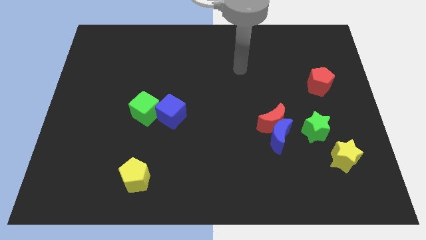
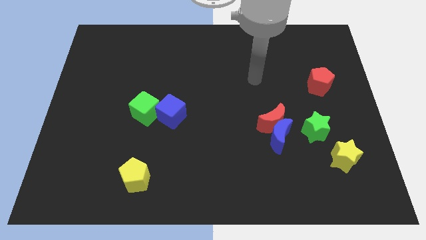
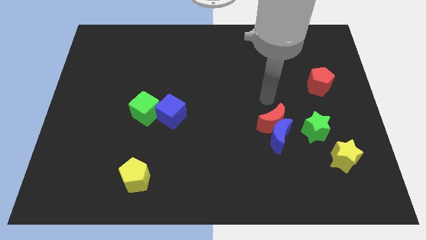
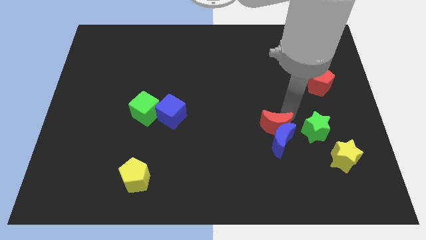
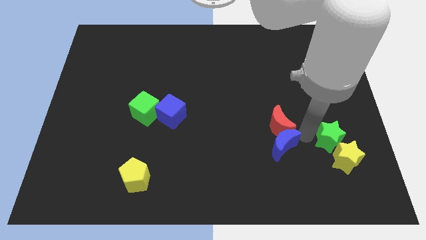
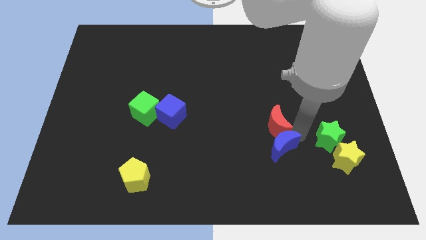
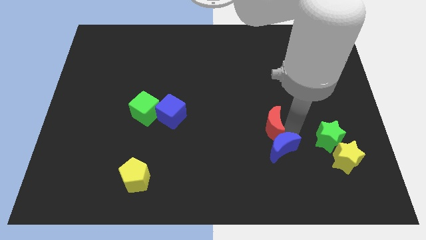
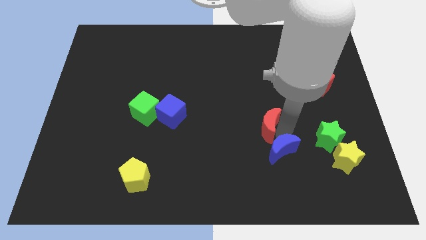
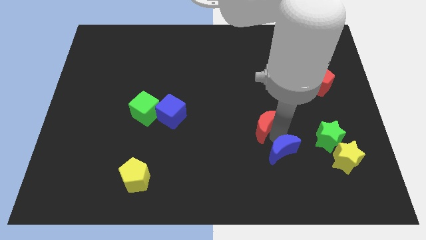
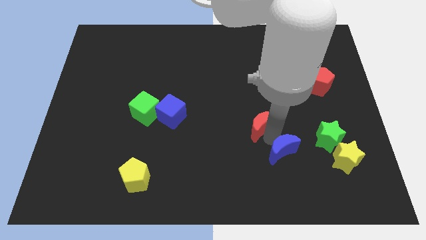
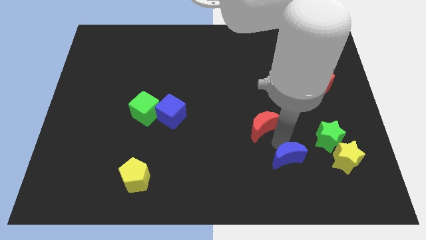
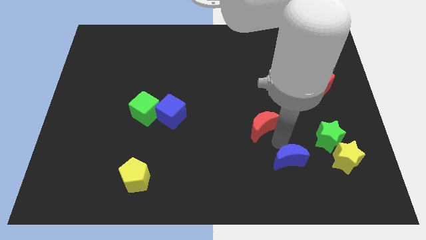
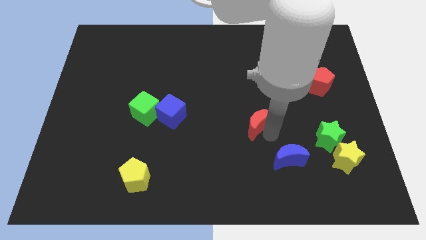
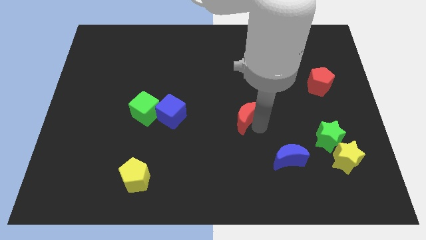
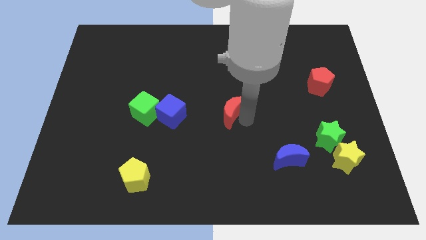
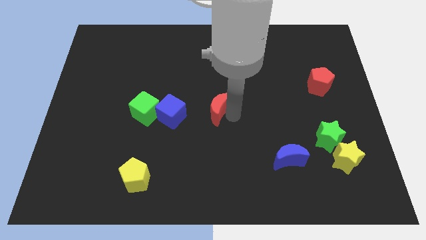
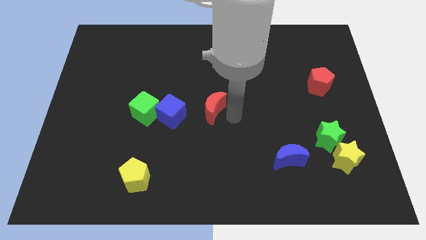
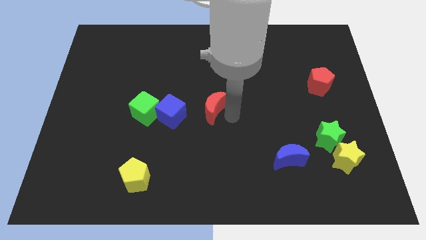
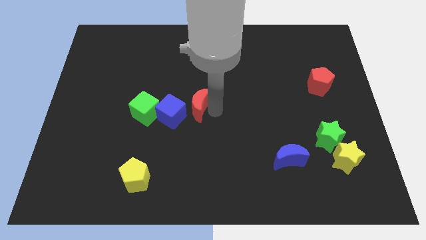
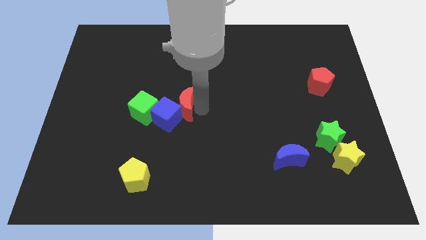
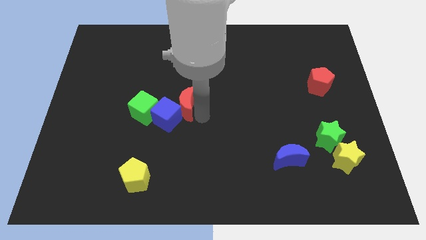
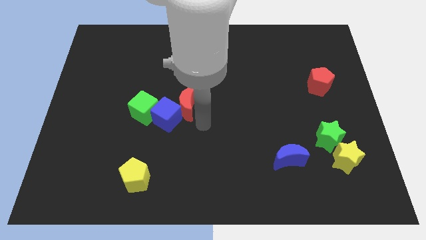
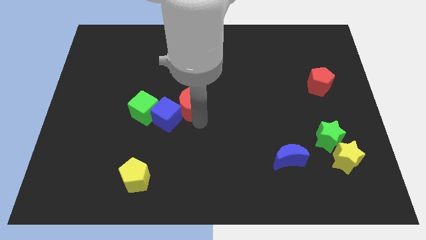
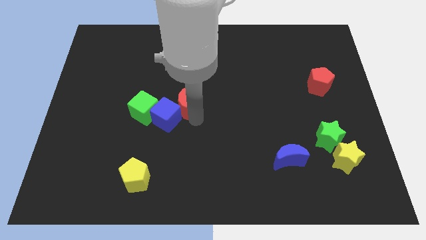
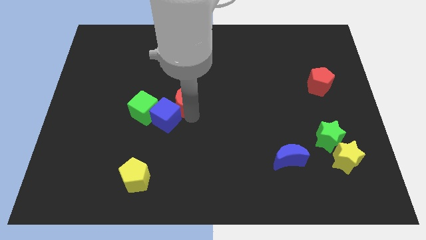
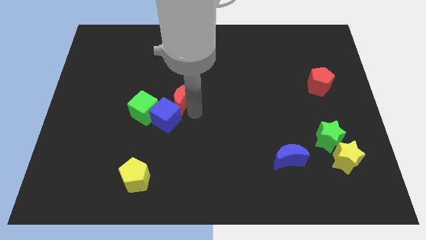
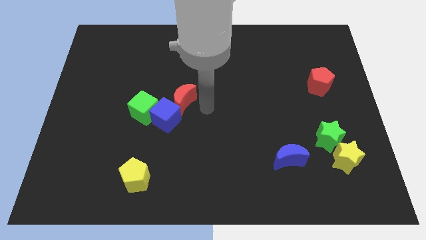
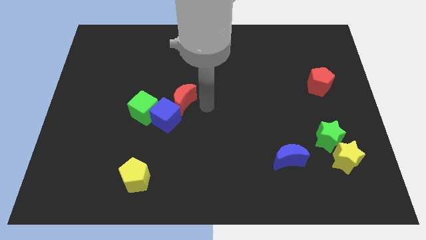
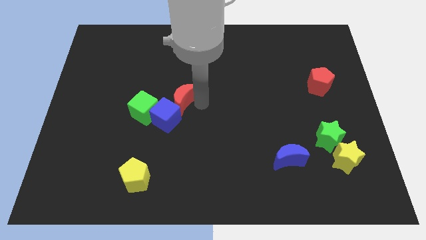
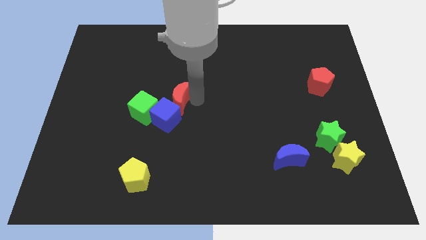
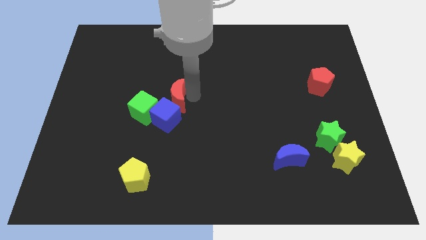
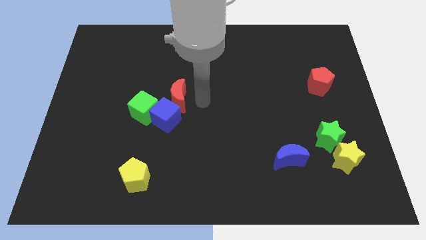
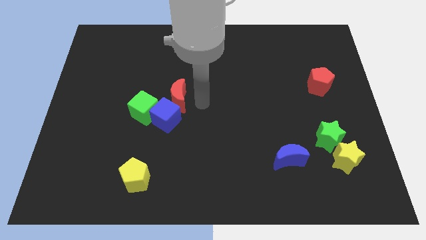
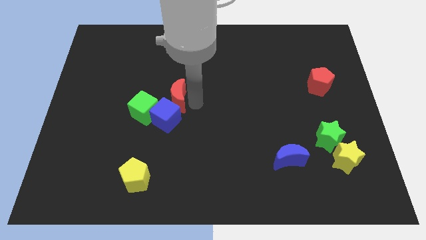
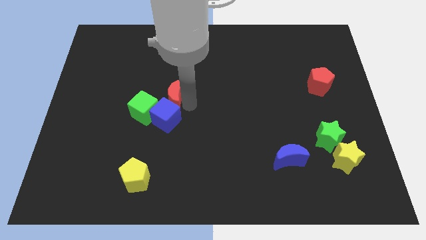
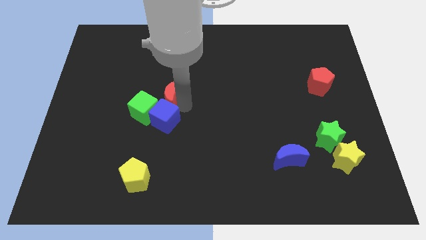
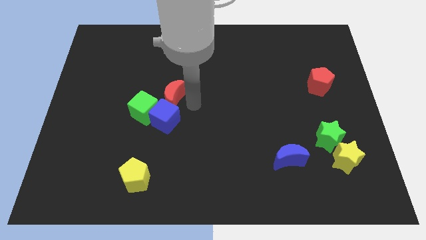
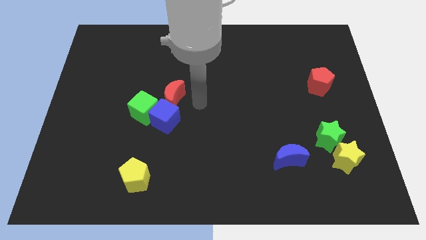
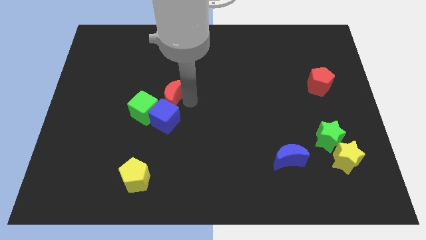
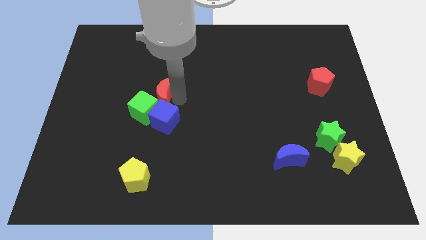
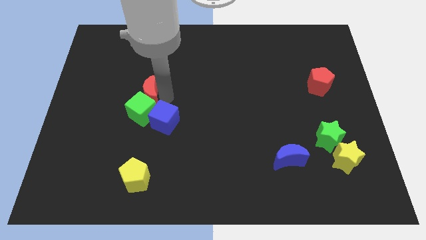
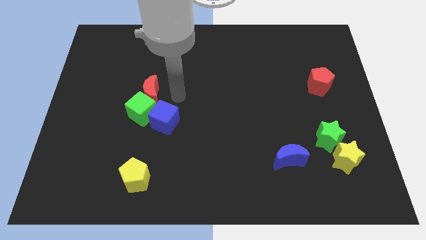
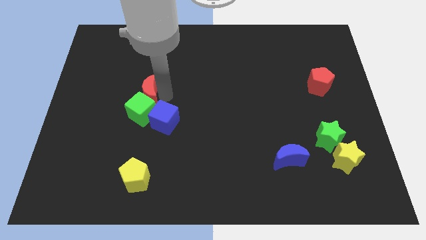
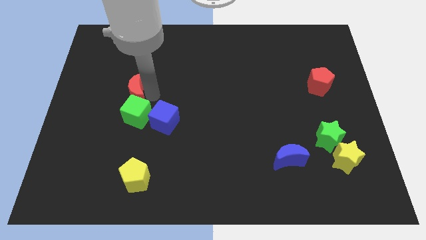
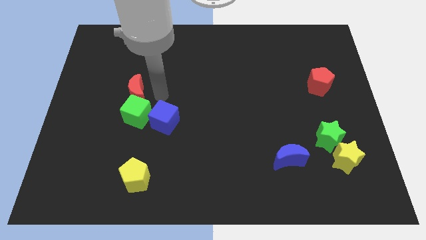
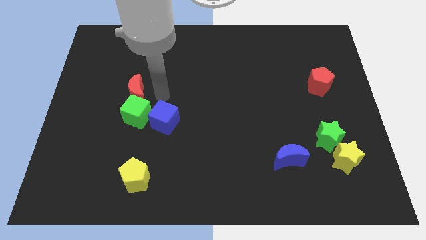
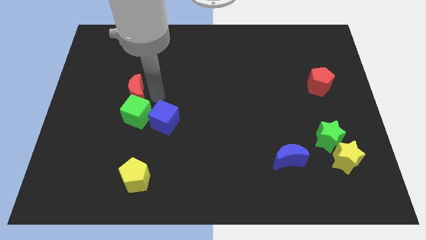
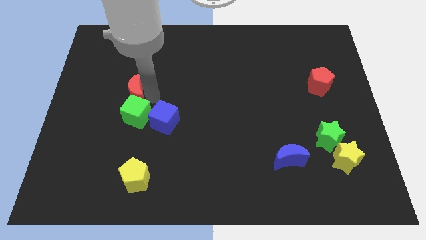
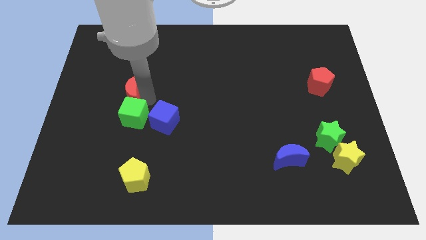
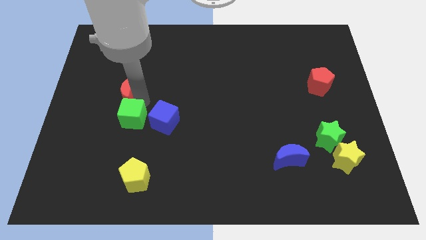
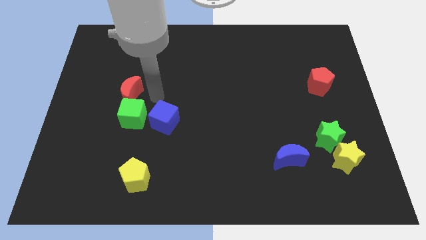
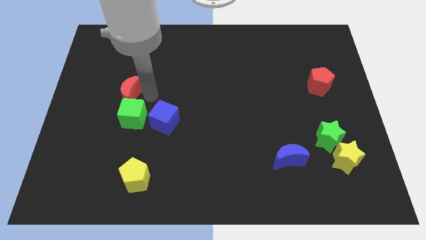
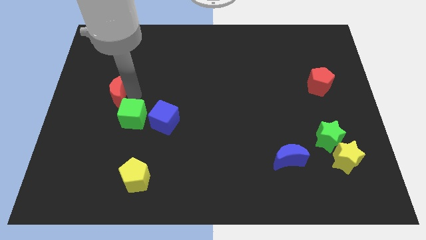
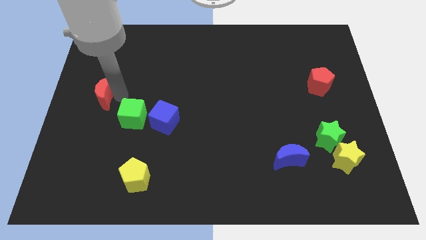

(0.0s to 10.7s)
slide the red moon to the center left

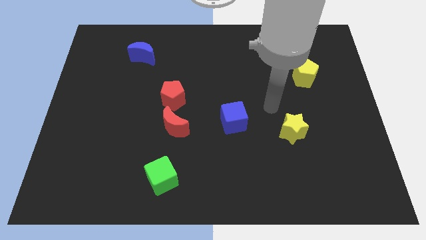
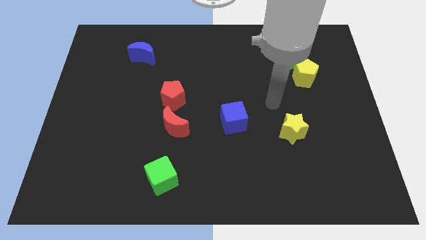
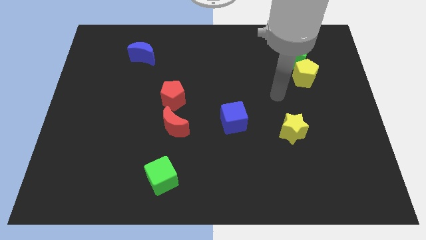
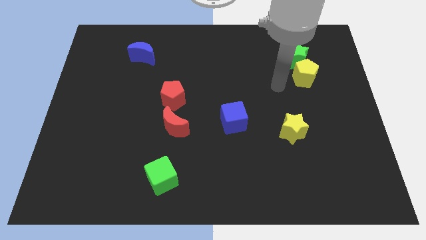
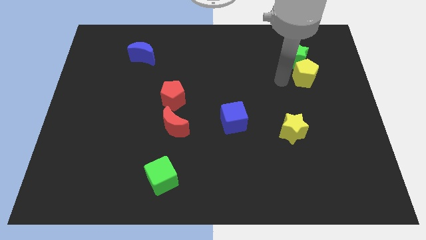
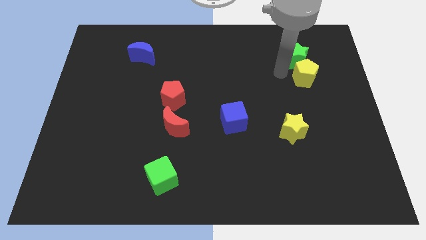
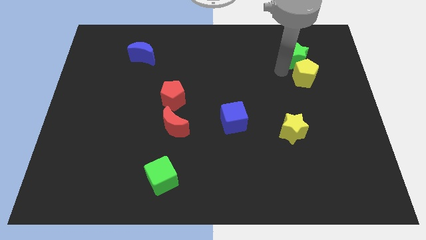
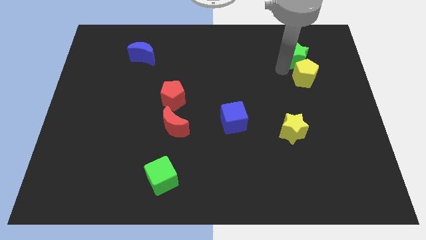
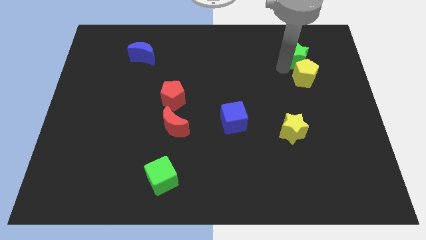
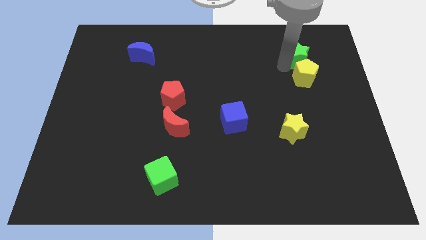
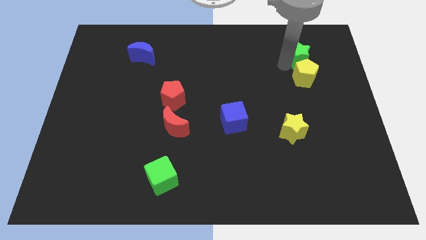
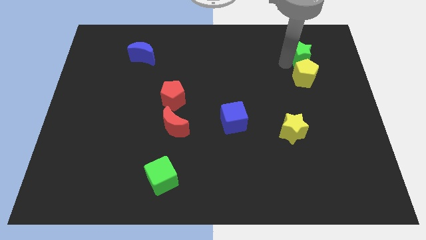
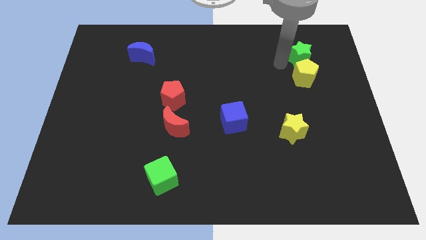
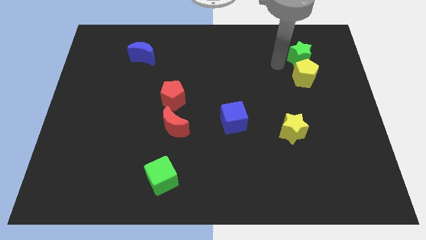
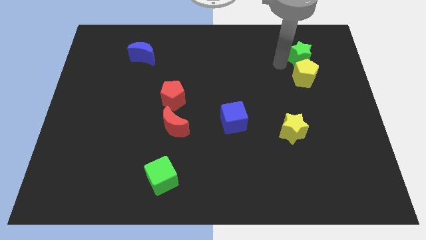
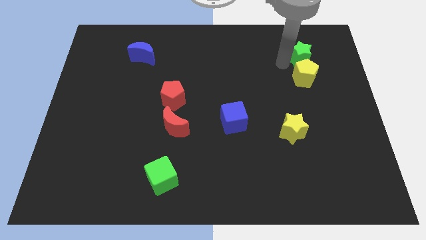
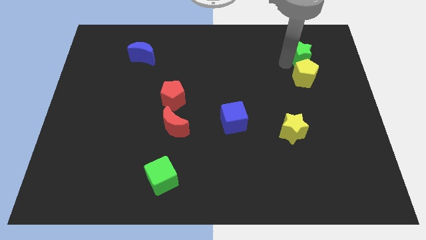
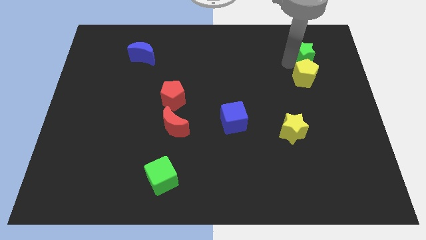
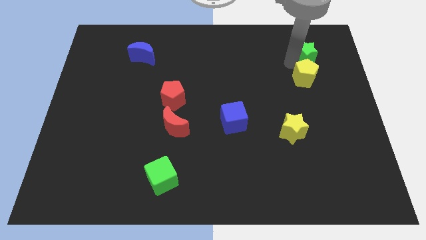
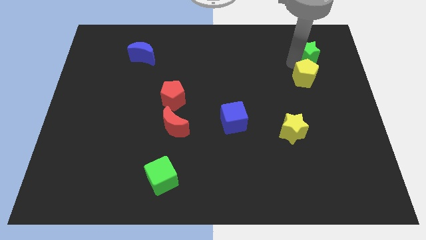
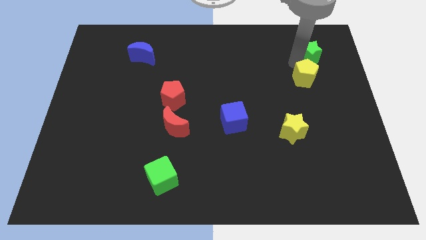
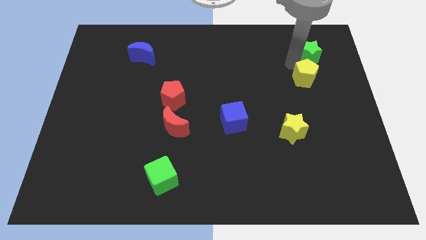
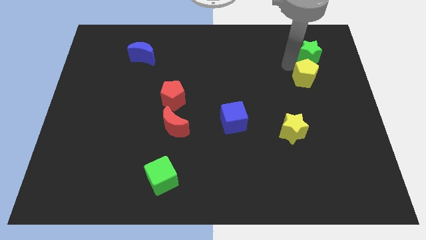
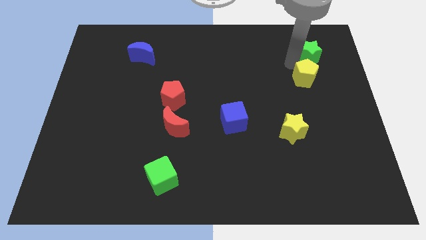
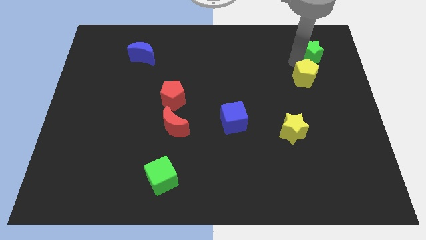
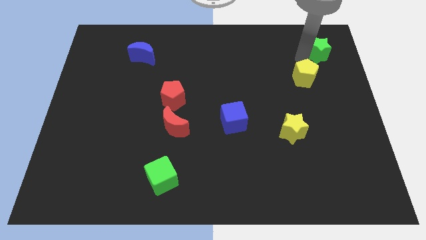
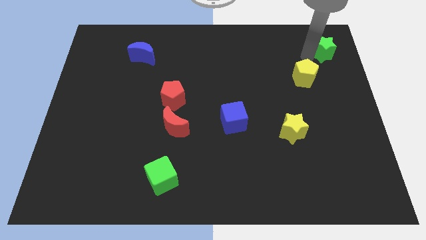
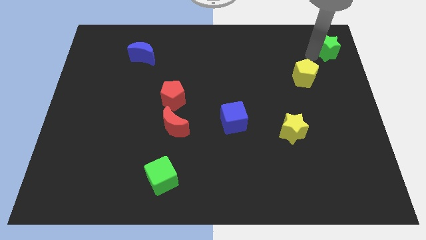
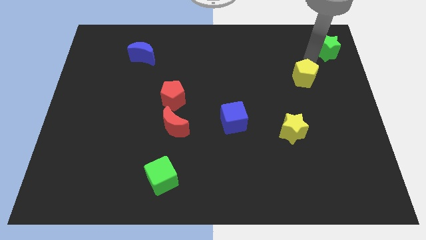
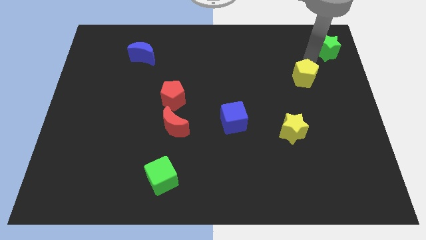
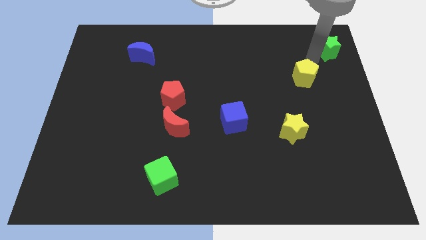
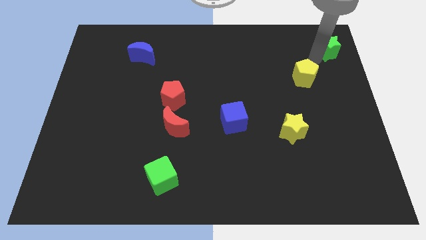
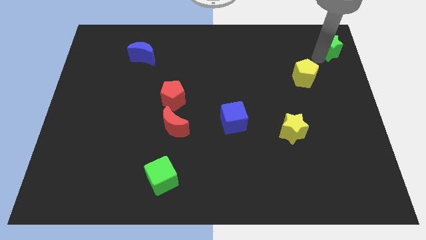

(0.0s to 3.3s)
push the green star to the top right corner
